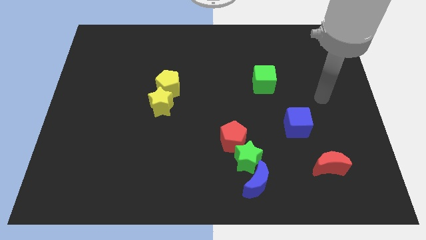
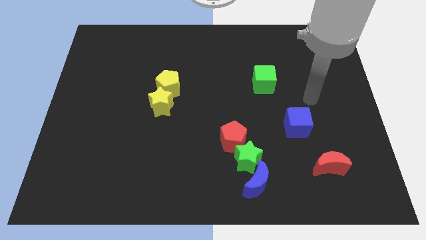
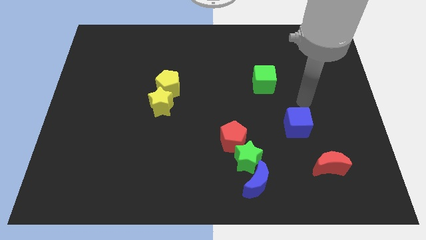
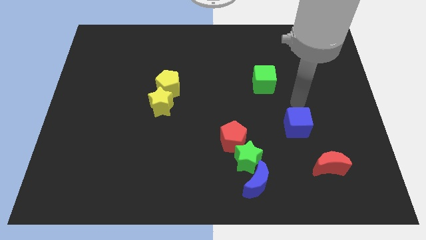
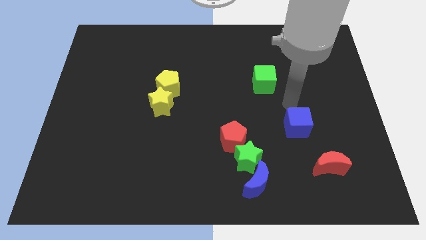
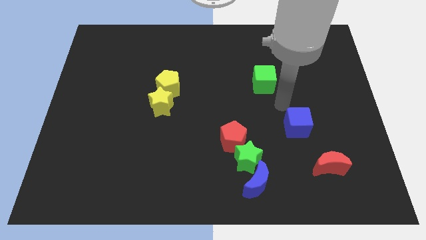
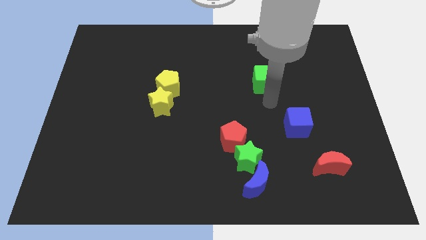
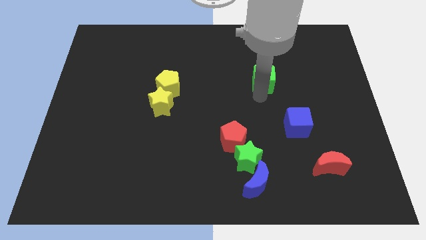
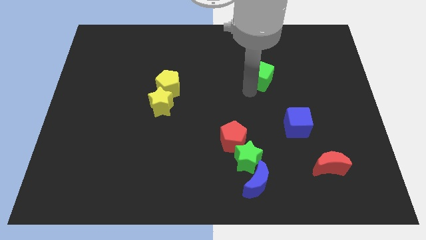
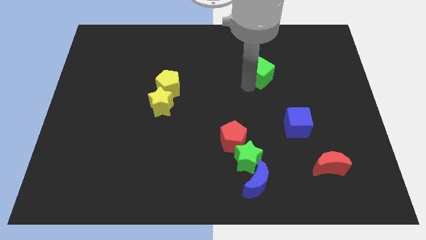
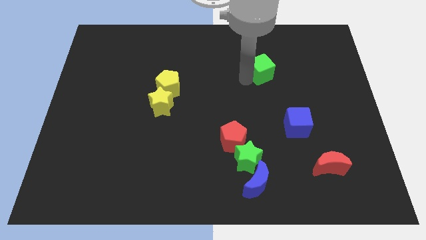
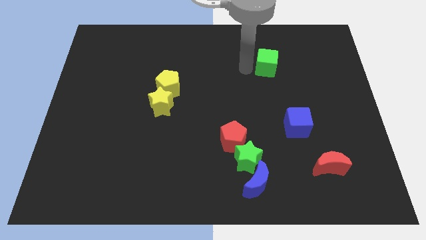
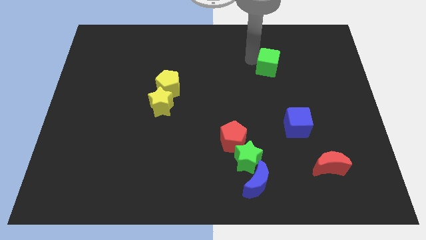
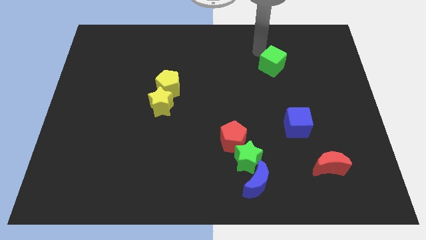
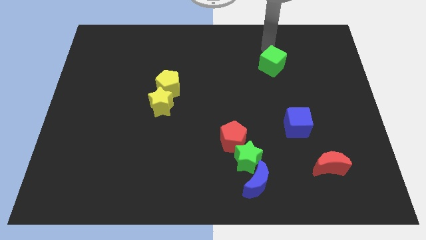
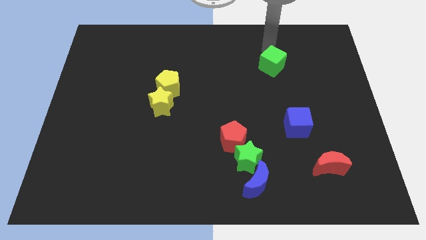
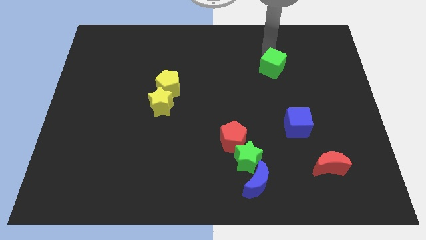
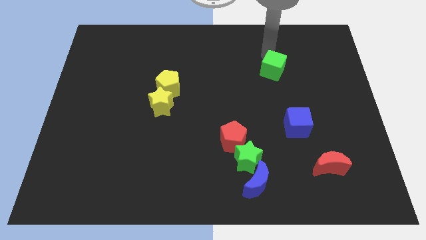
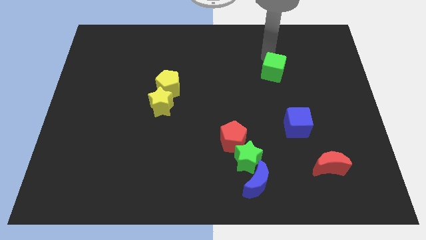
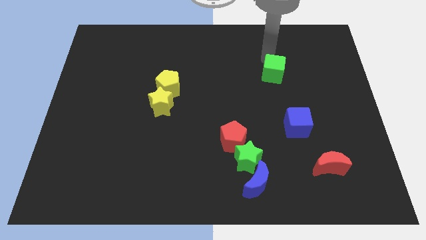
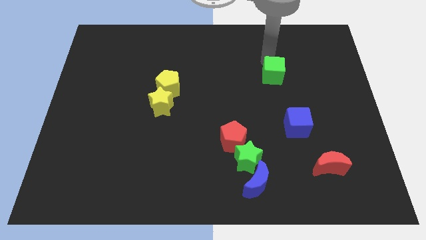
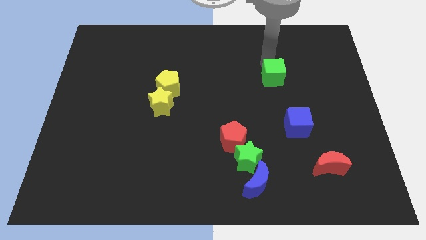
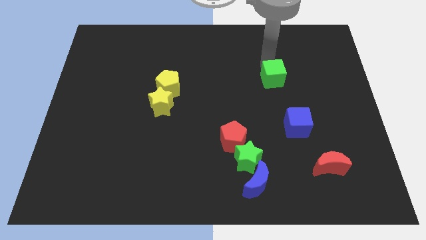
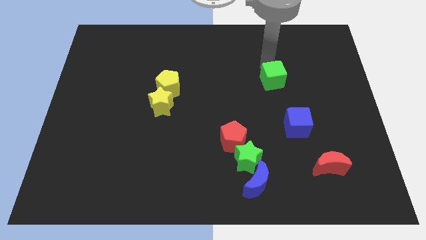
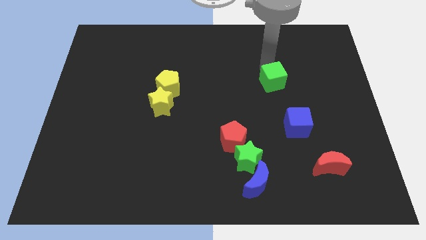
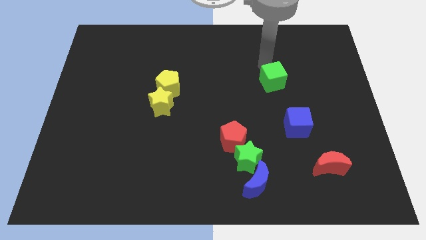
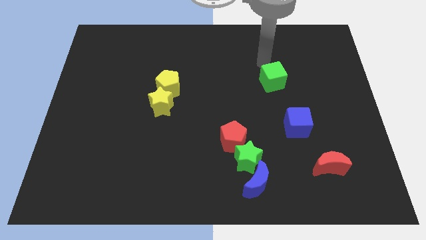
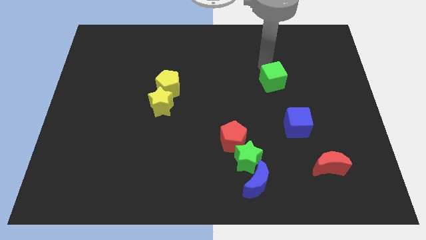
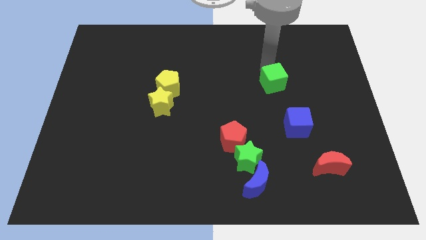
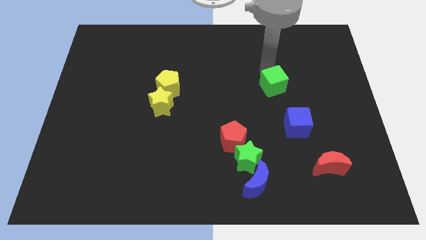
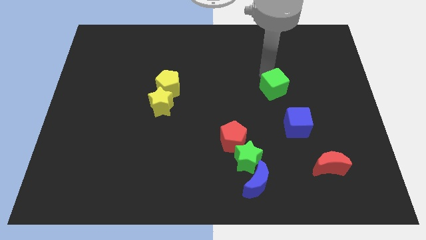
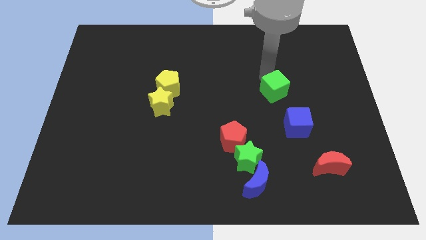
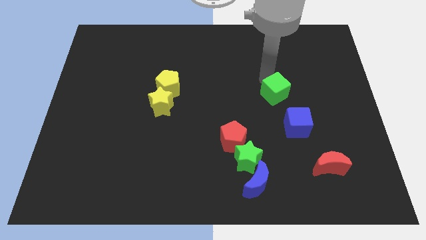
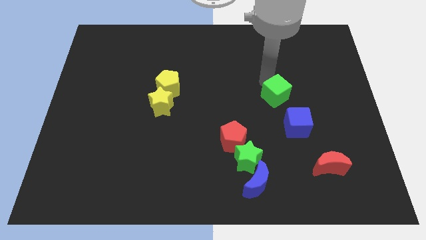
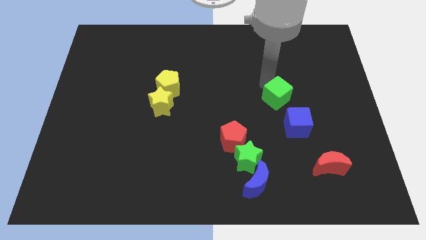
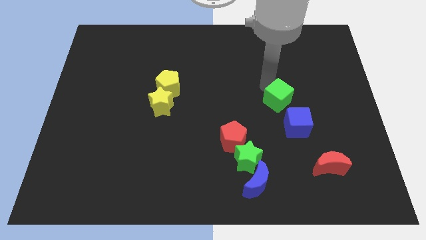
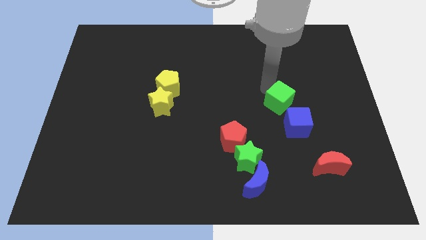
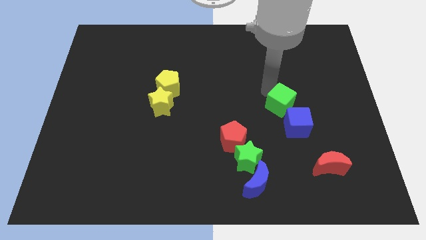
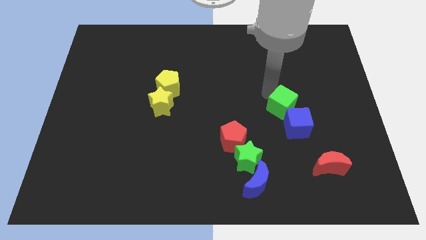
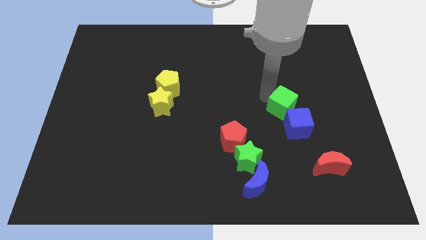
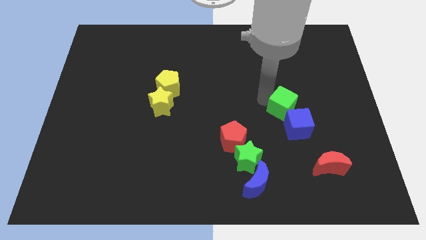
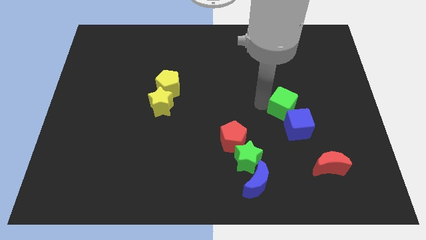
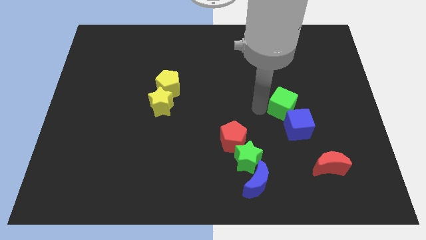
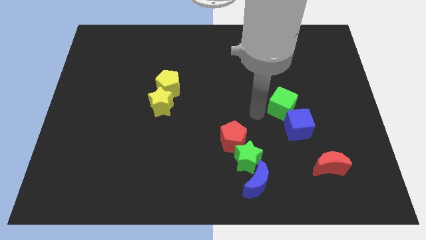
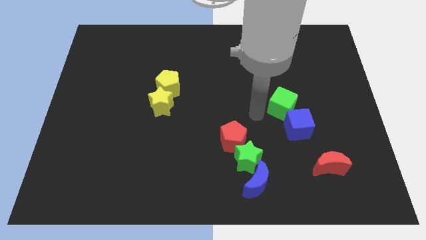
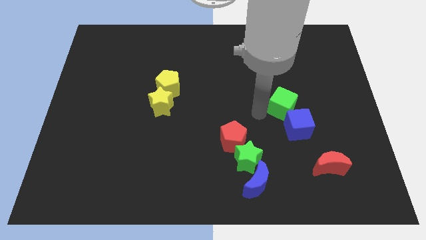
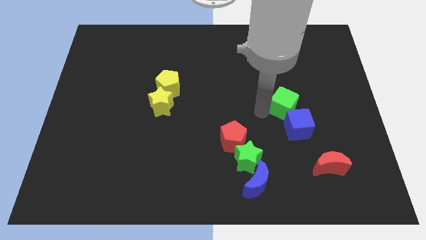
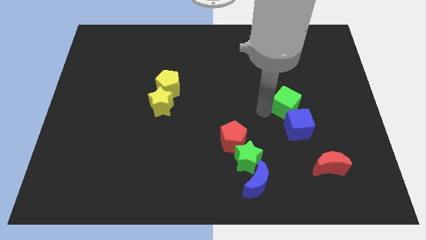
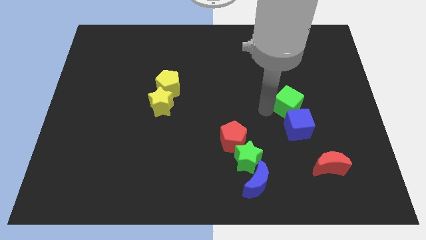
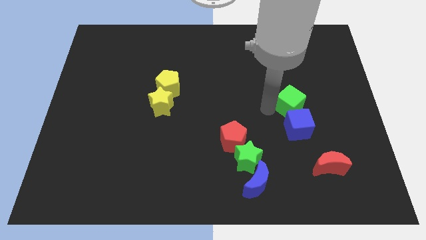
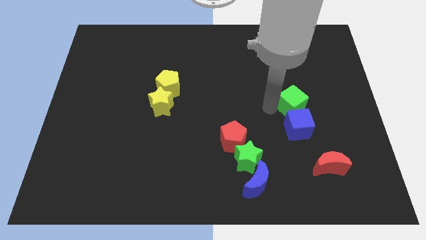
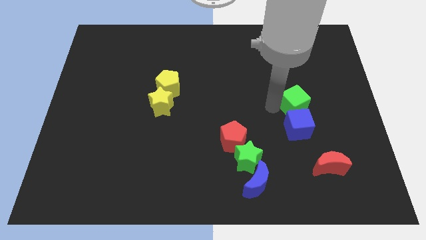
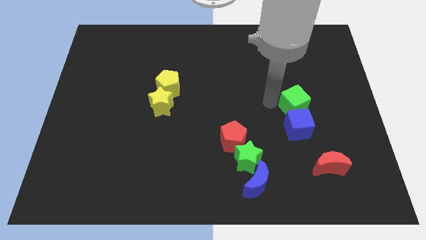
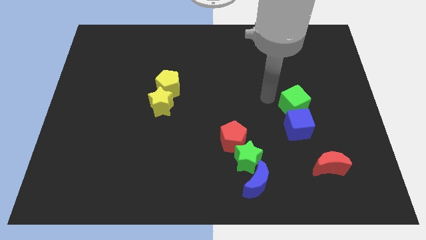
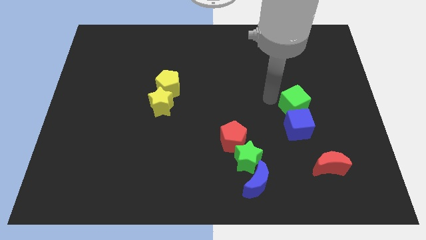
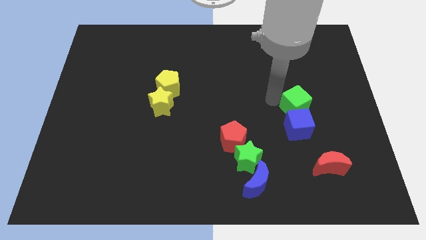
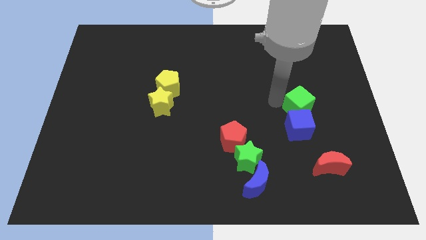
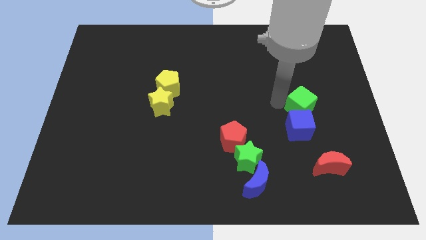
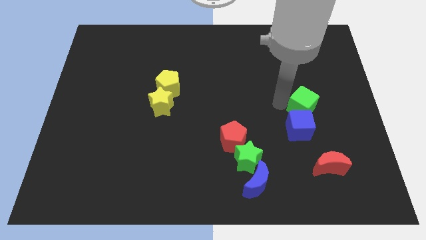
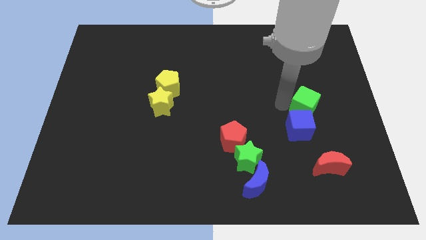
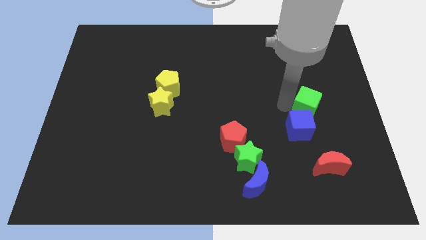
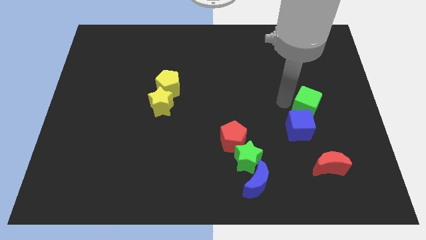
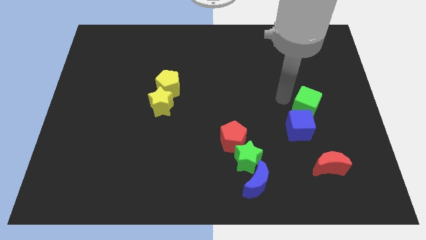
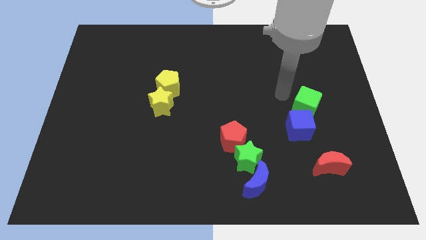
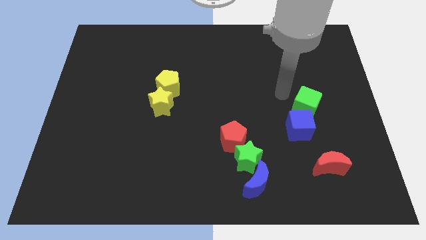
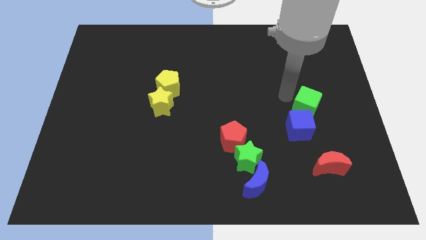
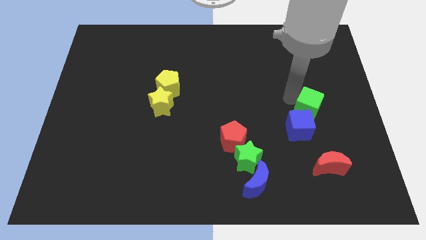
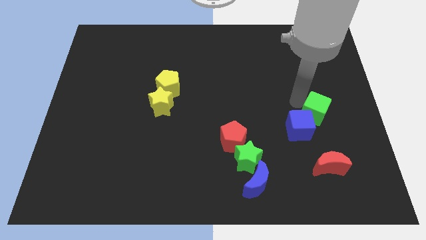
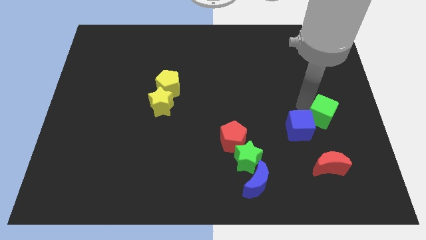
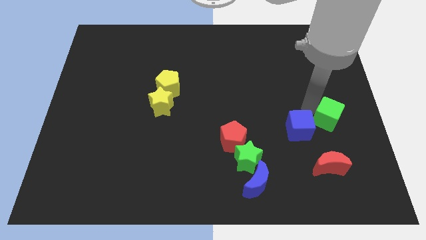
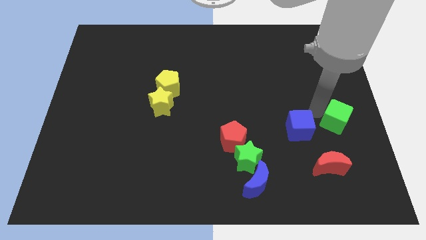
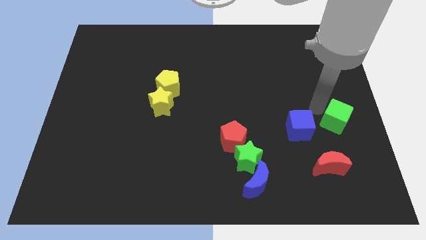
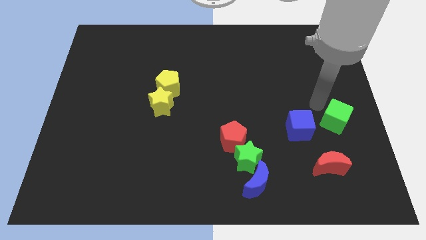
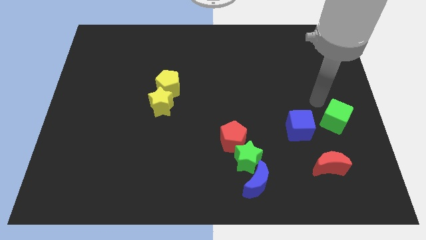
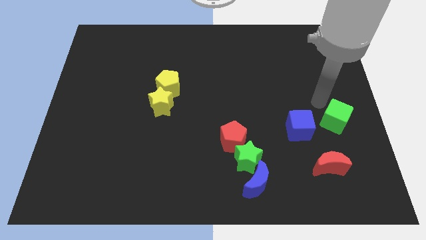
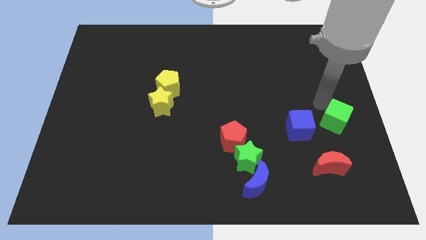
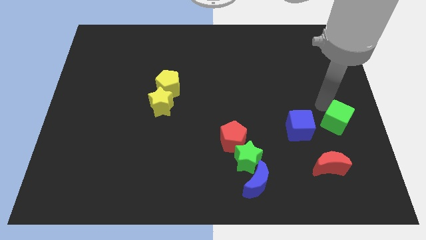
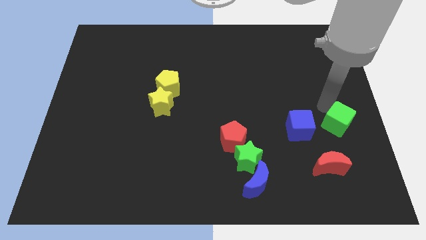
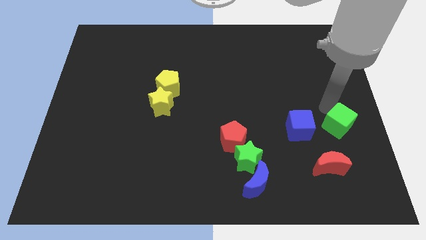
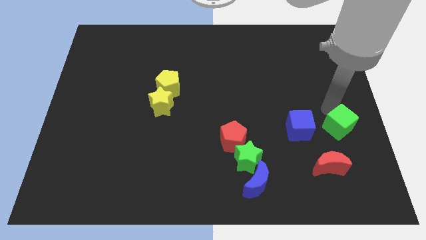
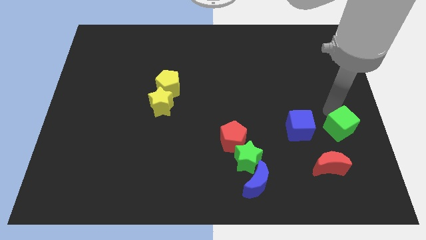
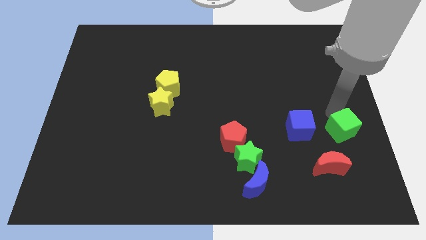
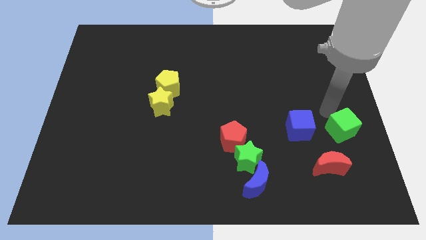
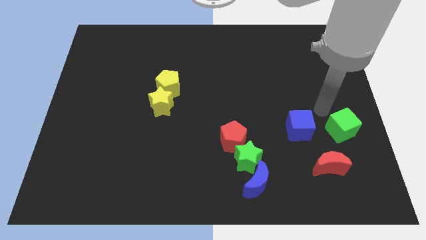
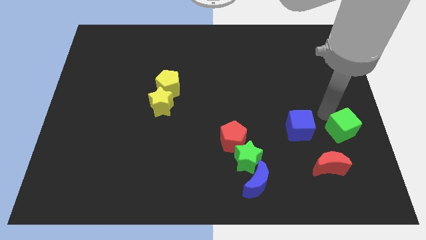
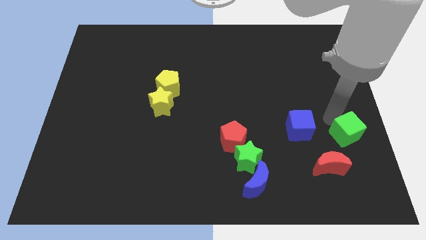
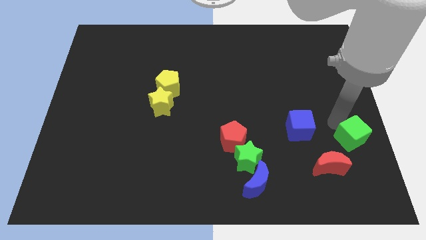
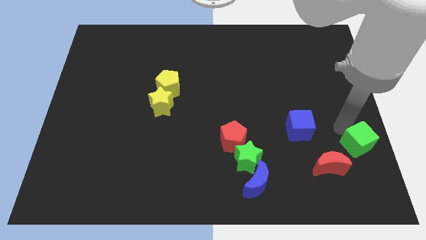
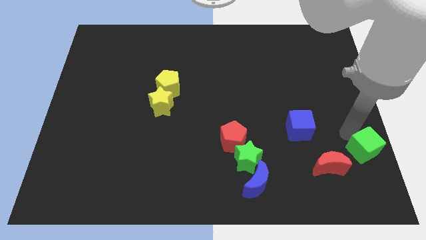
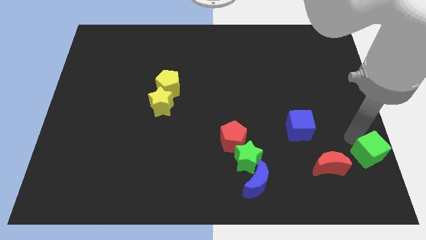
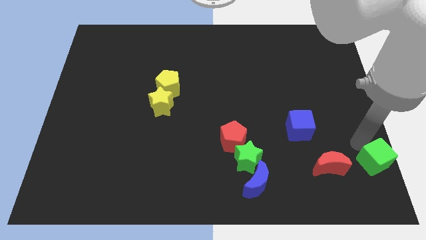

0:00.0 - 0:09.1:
move the green cube to the bottom right corner
